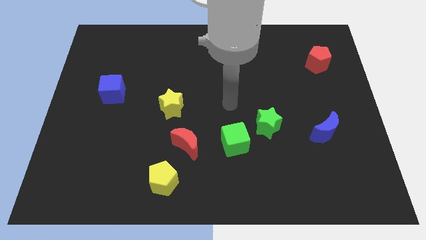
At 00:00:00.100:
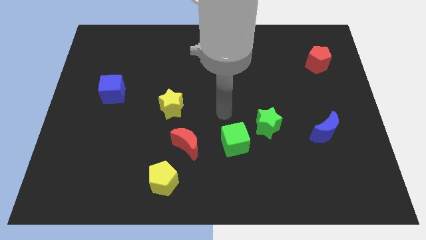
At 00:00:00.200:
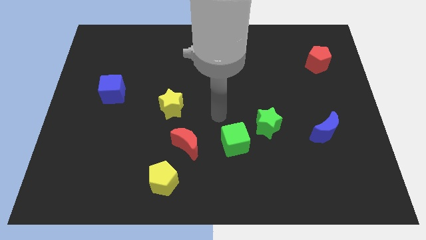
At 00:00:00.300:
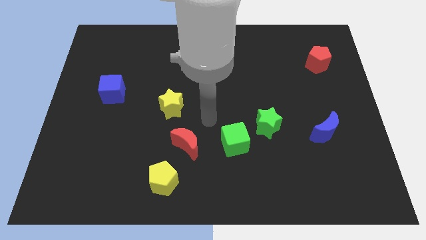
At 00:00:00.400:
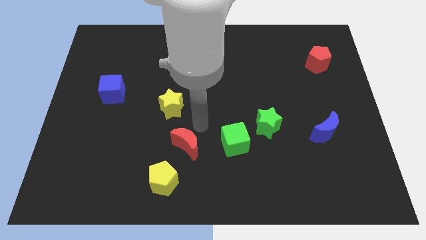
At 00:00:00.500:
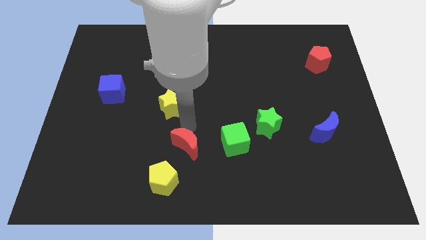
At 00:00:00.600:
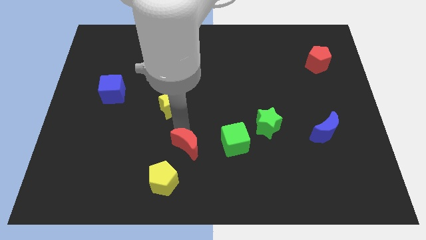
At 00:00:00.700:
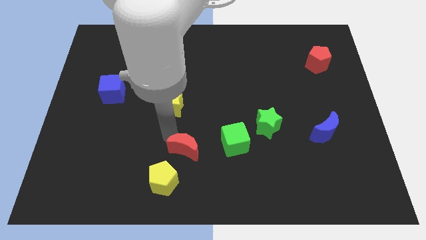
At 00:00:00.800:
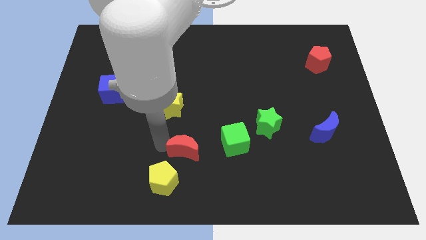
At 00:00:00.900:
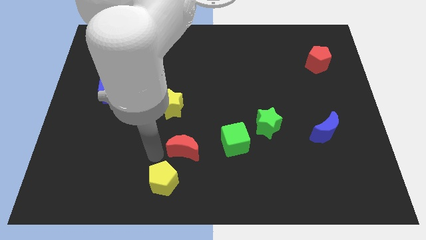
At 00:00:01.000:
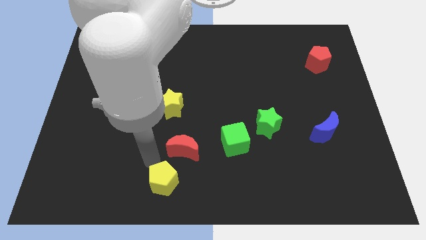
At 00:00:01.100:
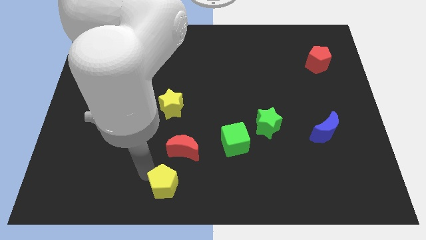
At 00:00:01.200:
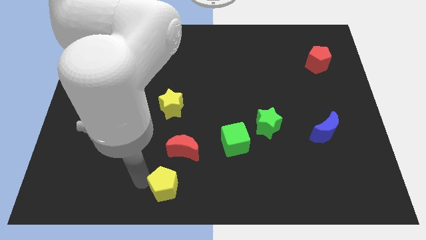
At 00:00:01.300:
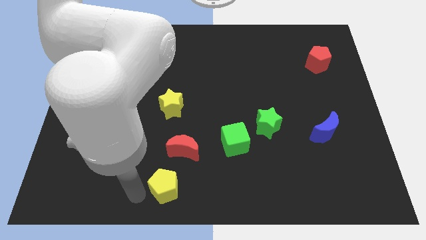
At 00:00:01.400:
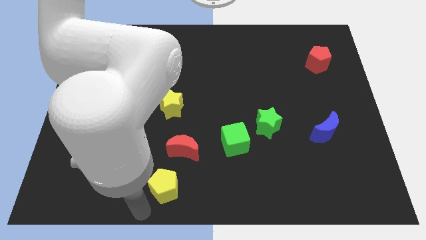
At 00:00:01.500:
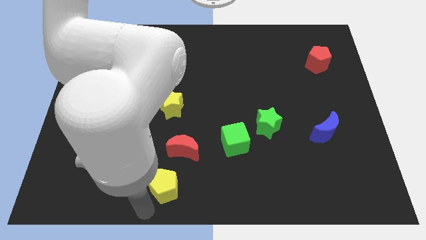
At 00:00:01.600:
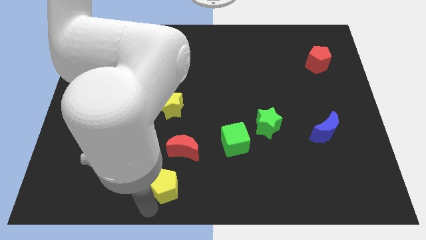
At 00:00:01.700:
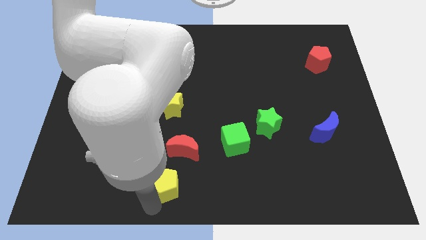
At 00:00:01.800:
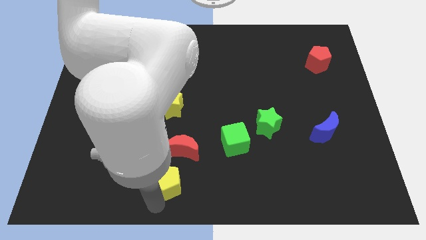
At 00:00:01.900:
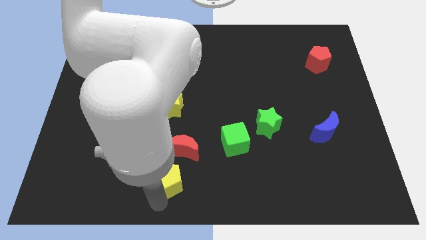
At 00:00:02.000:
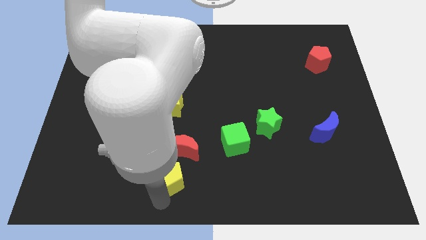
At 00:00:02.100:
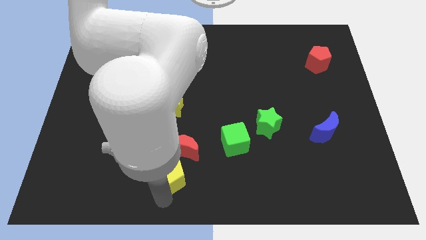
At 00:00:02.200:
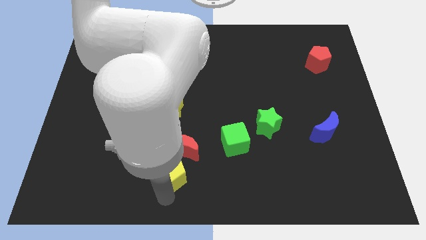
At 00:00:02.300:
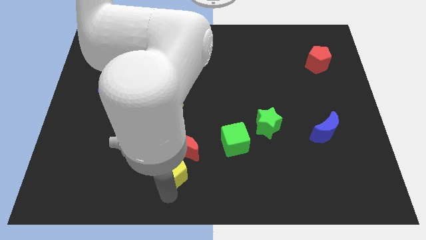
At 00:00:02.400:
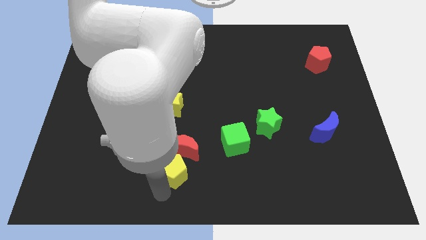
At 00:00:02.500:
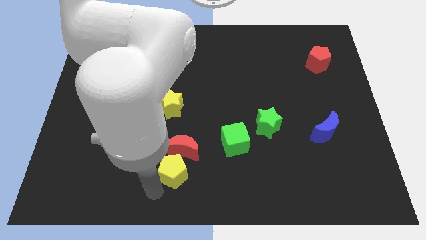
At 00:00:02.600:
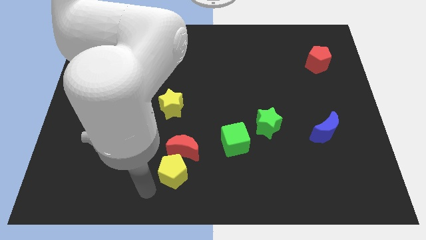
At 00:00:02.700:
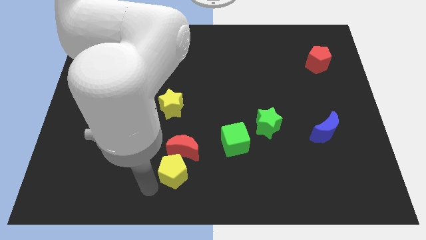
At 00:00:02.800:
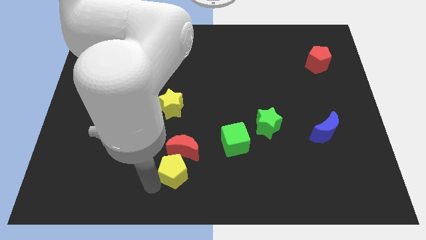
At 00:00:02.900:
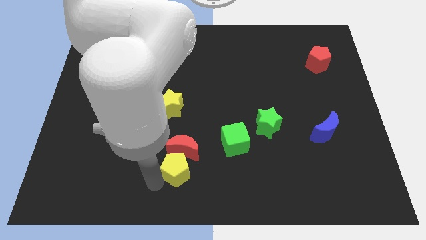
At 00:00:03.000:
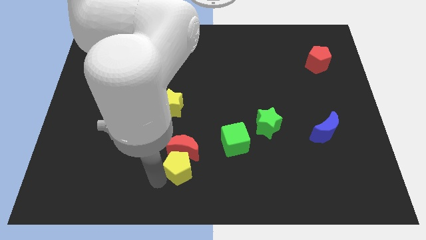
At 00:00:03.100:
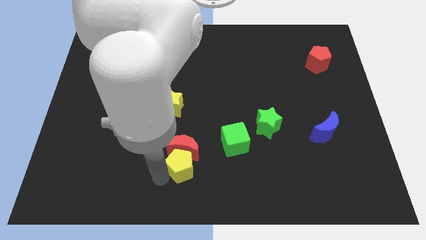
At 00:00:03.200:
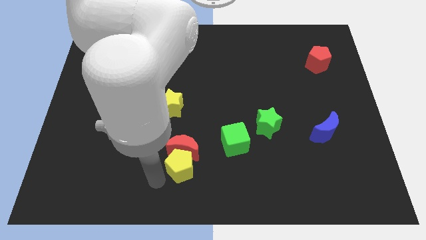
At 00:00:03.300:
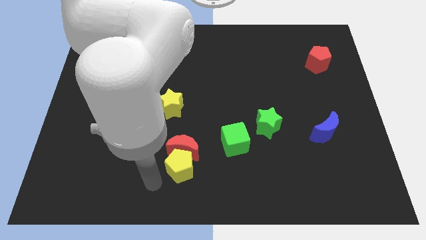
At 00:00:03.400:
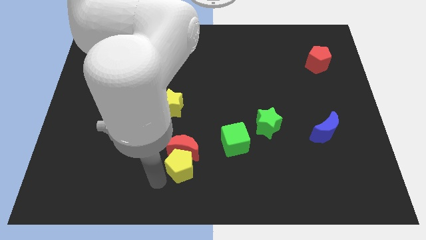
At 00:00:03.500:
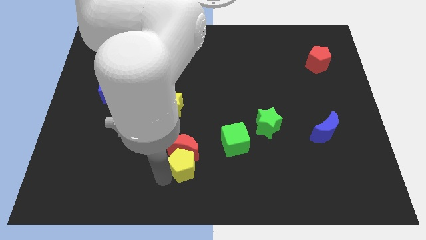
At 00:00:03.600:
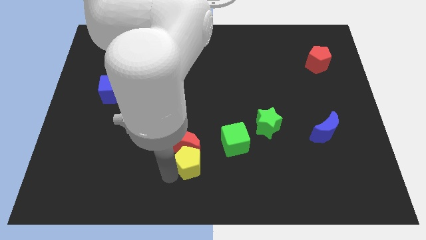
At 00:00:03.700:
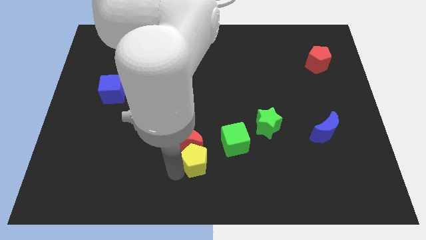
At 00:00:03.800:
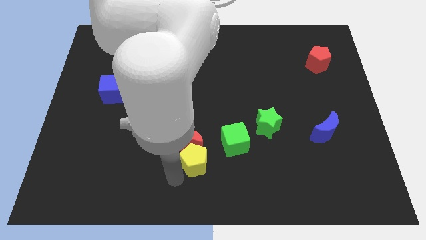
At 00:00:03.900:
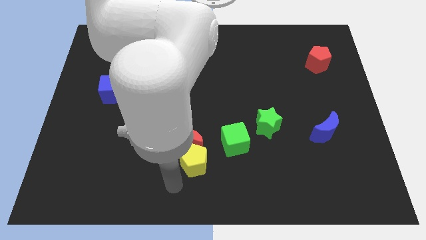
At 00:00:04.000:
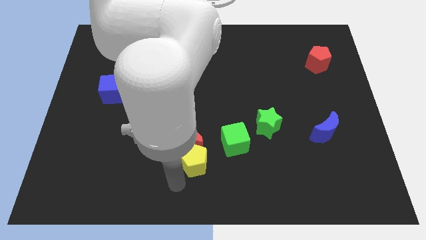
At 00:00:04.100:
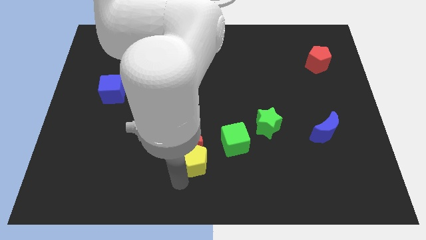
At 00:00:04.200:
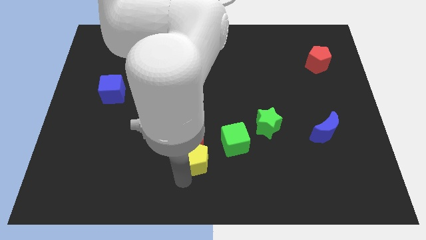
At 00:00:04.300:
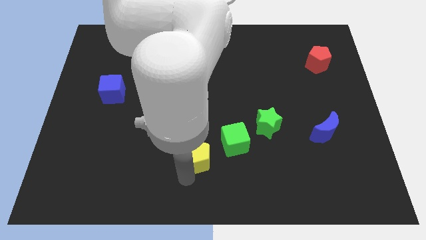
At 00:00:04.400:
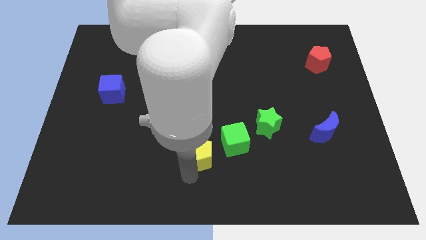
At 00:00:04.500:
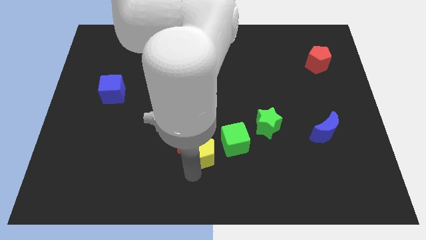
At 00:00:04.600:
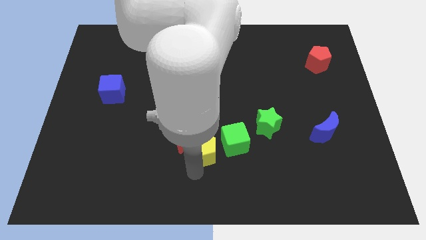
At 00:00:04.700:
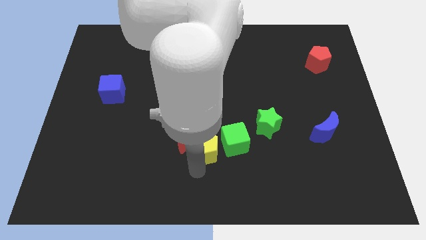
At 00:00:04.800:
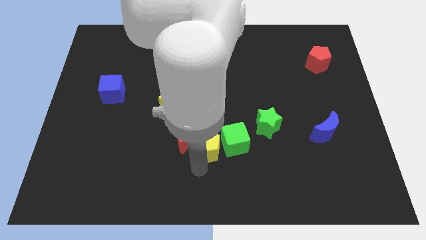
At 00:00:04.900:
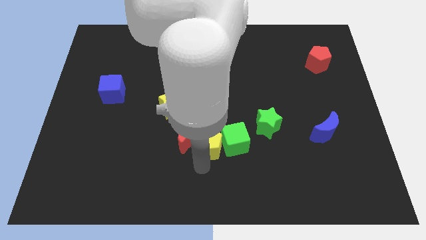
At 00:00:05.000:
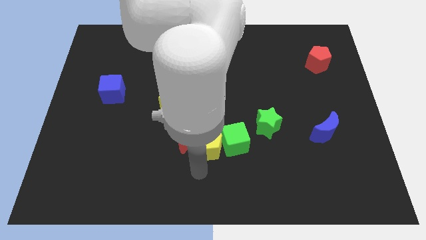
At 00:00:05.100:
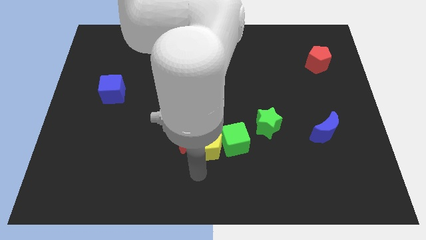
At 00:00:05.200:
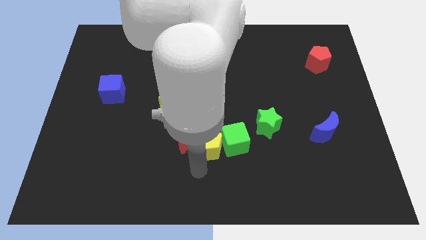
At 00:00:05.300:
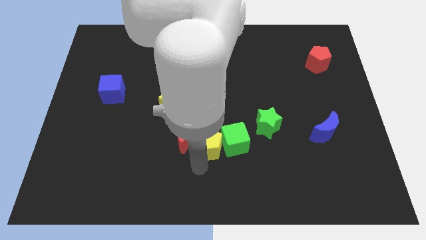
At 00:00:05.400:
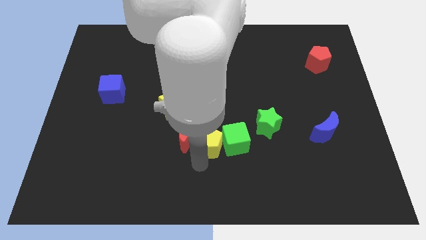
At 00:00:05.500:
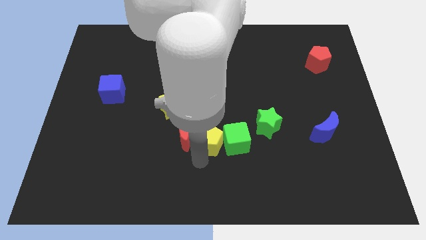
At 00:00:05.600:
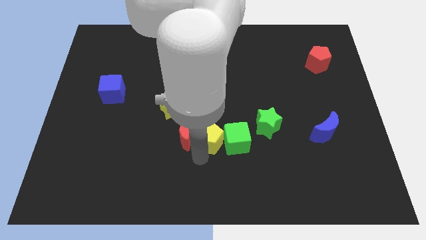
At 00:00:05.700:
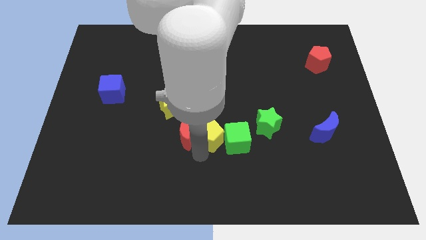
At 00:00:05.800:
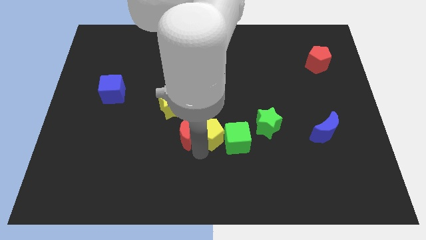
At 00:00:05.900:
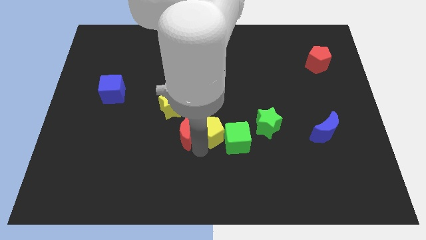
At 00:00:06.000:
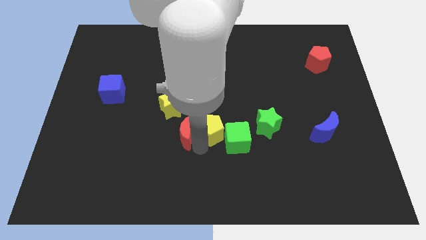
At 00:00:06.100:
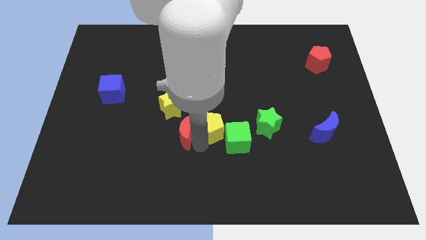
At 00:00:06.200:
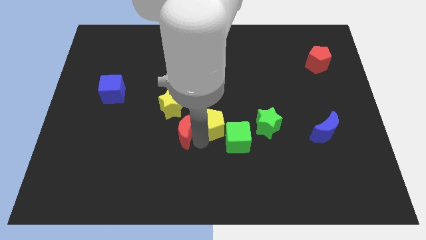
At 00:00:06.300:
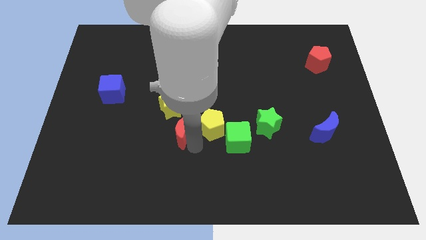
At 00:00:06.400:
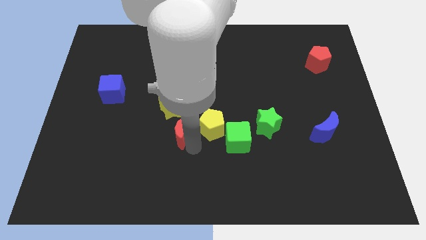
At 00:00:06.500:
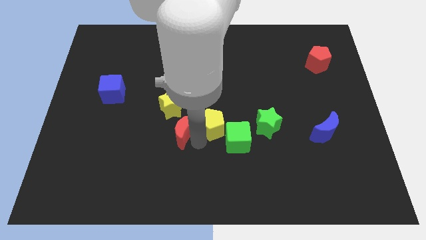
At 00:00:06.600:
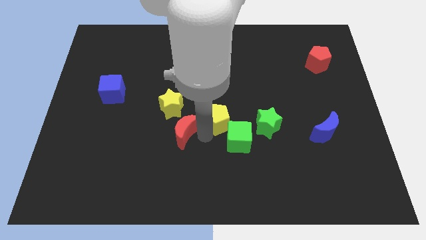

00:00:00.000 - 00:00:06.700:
slide the yellow pentagon to the top of the green cube
